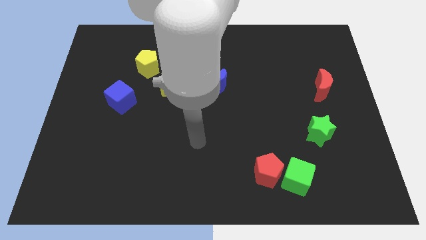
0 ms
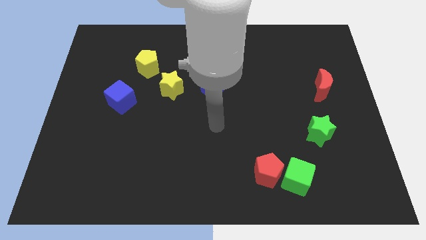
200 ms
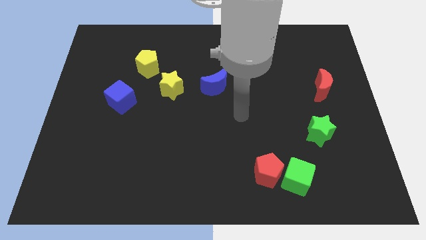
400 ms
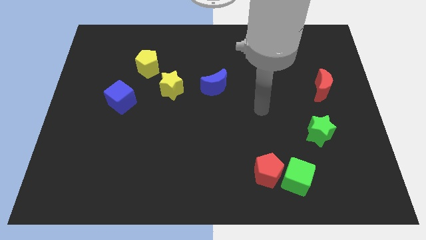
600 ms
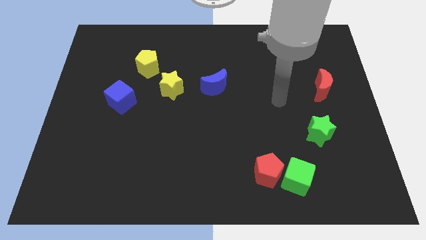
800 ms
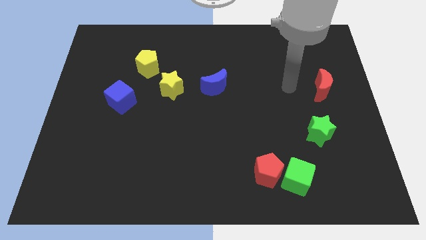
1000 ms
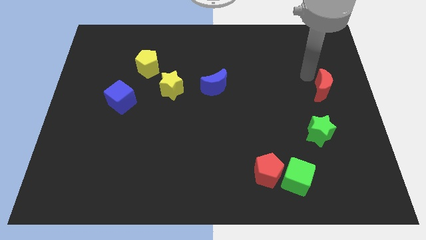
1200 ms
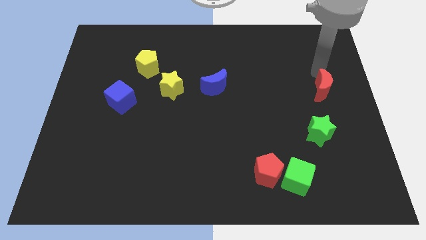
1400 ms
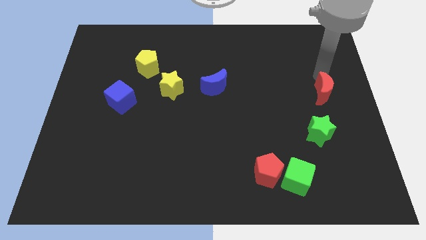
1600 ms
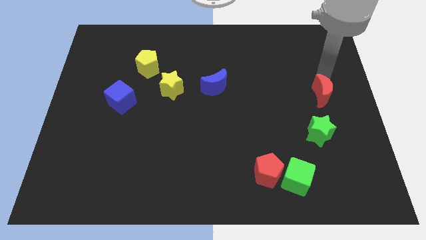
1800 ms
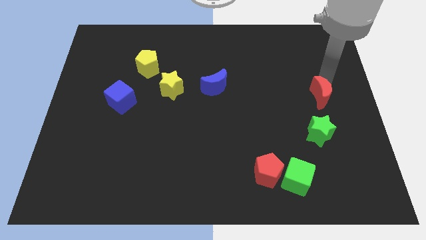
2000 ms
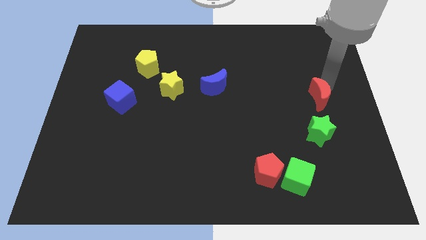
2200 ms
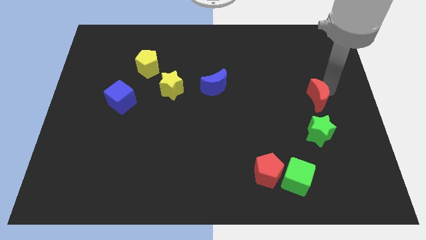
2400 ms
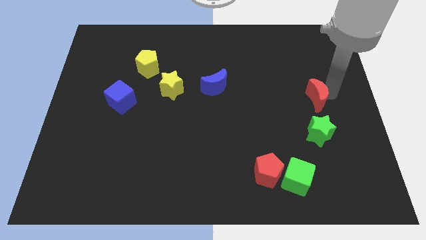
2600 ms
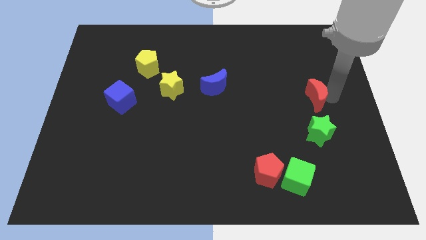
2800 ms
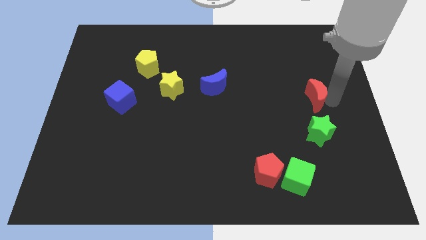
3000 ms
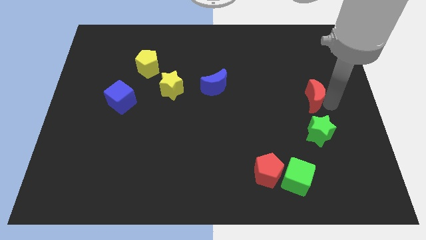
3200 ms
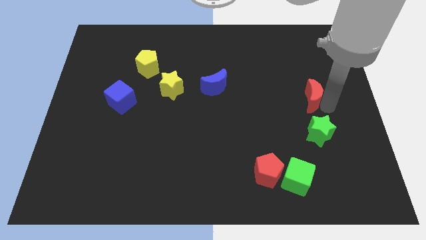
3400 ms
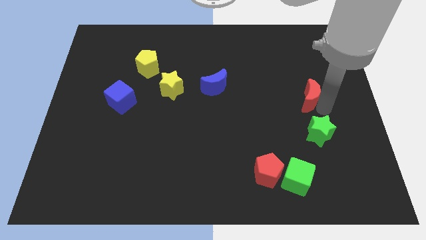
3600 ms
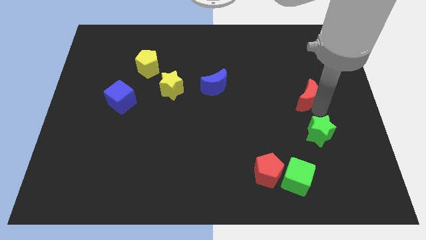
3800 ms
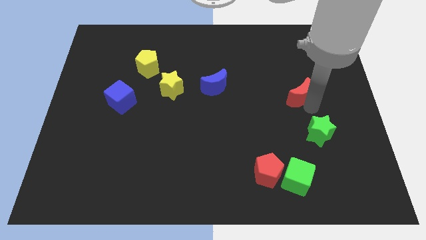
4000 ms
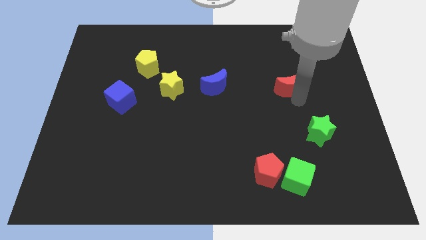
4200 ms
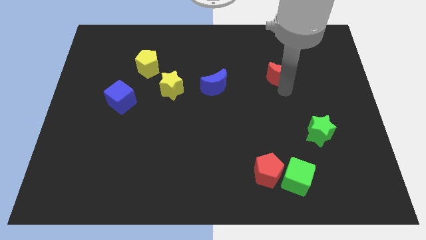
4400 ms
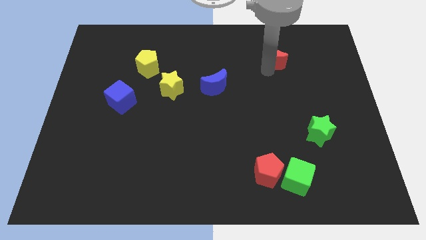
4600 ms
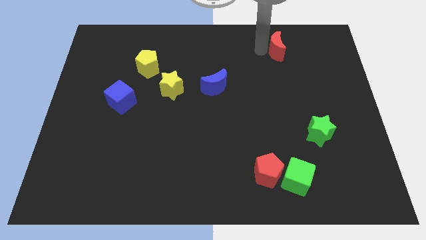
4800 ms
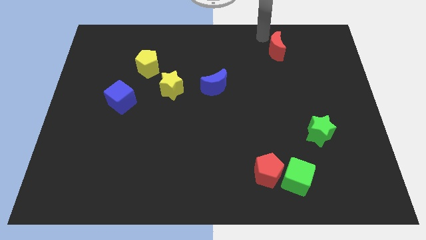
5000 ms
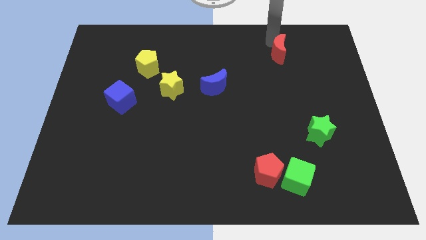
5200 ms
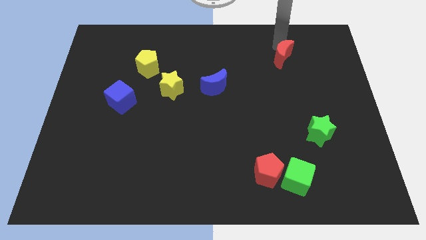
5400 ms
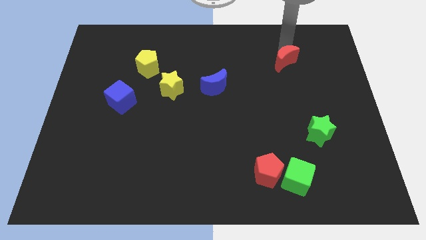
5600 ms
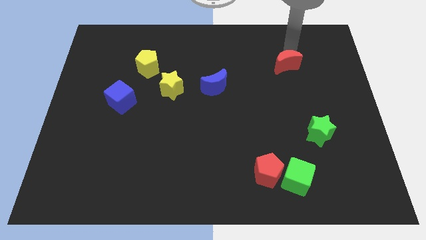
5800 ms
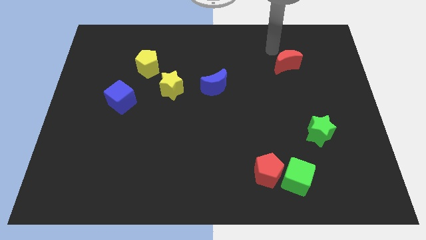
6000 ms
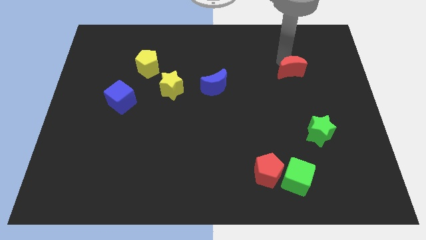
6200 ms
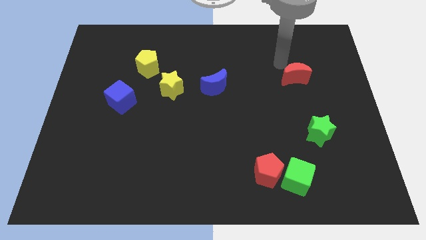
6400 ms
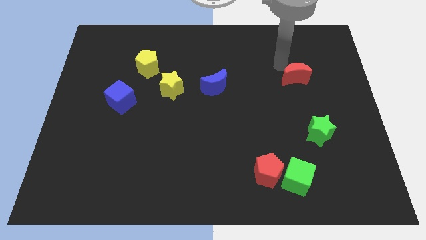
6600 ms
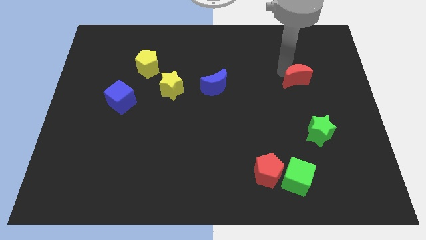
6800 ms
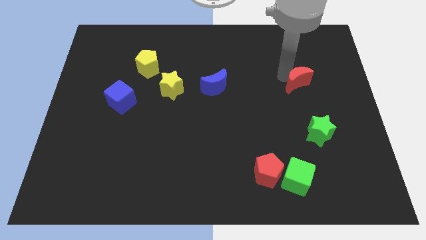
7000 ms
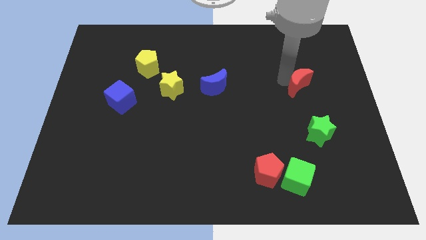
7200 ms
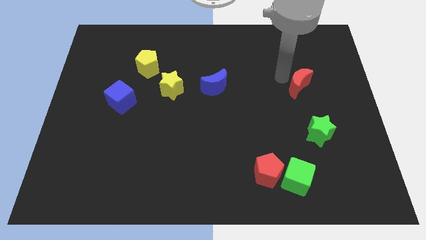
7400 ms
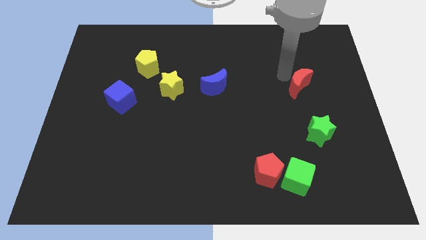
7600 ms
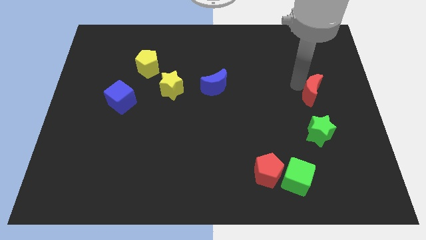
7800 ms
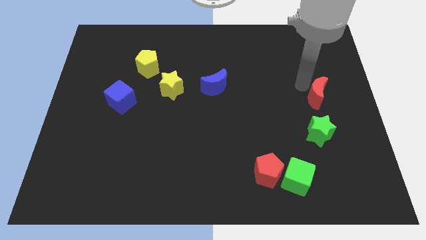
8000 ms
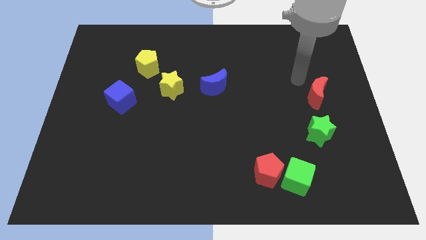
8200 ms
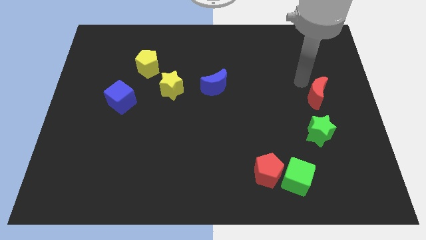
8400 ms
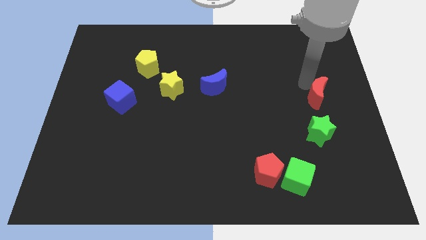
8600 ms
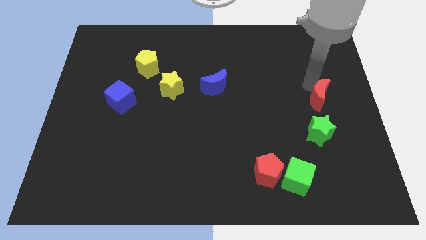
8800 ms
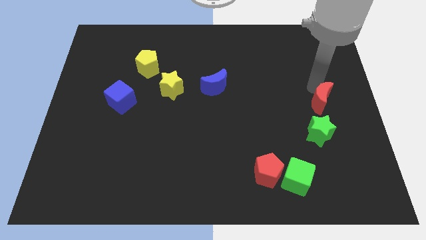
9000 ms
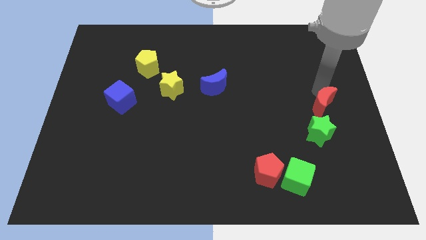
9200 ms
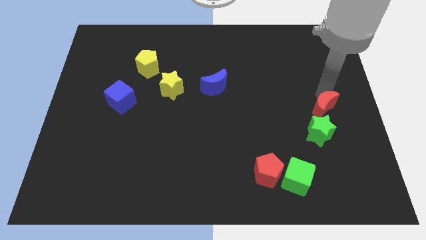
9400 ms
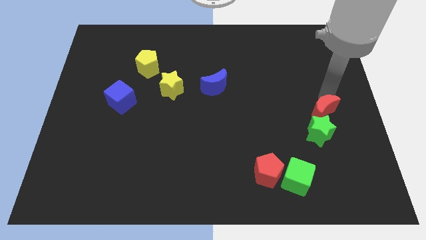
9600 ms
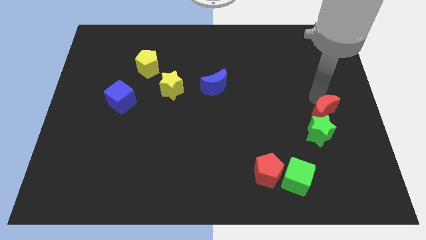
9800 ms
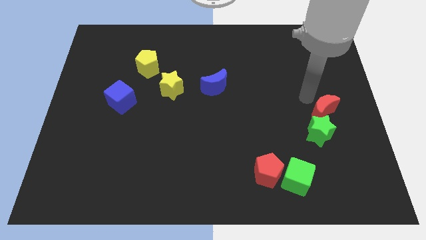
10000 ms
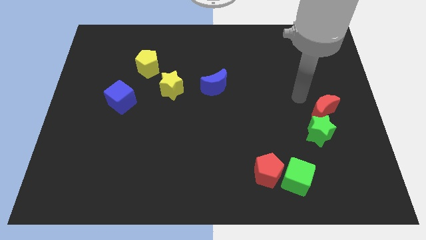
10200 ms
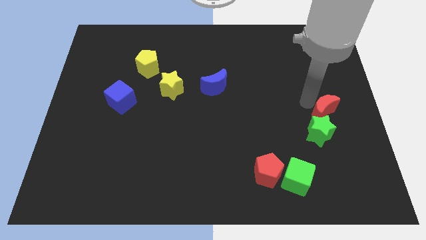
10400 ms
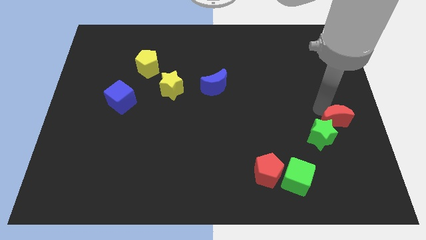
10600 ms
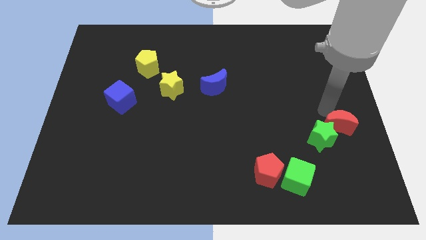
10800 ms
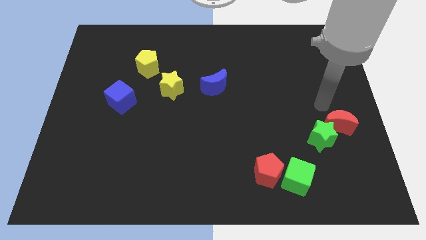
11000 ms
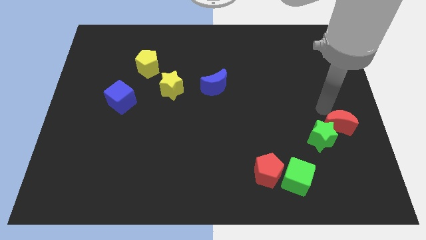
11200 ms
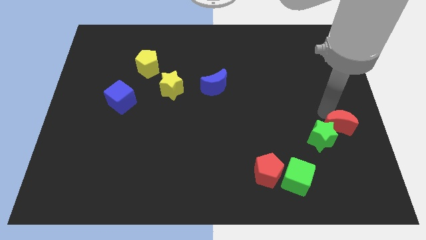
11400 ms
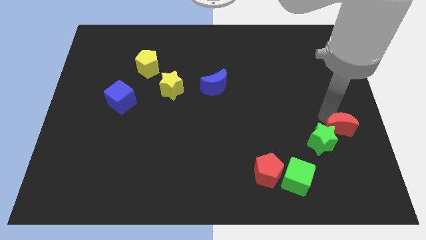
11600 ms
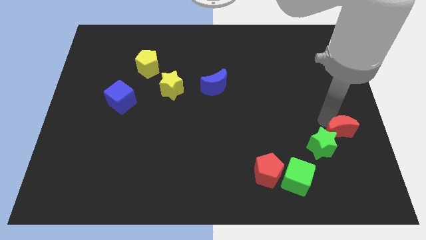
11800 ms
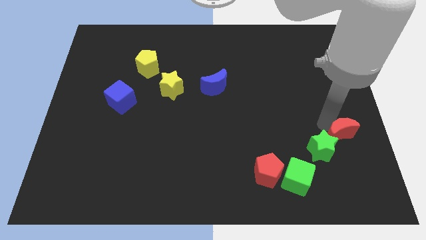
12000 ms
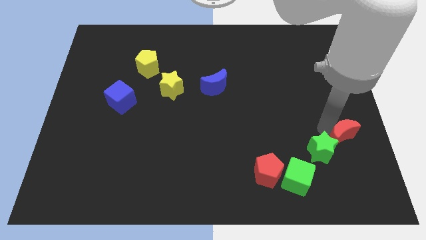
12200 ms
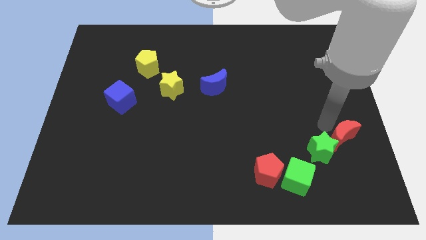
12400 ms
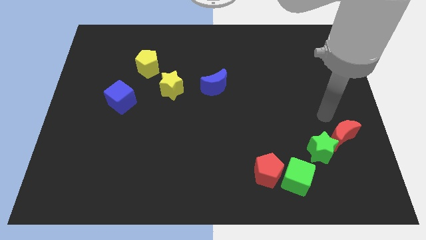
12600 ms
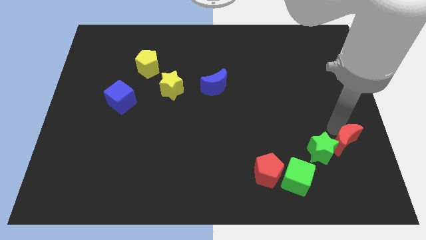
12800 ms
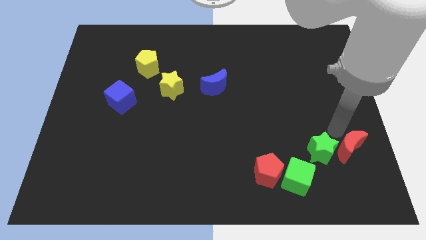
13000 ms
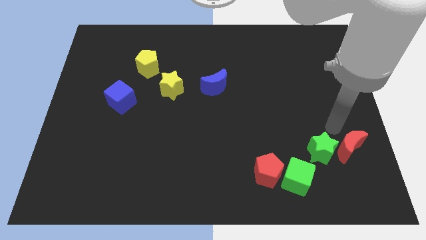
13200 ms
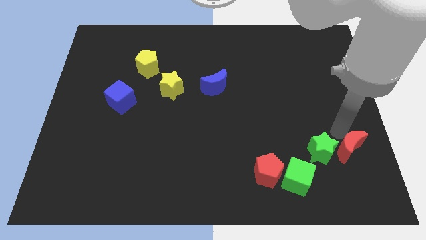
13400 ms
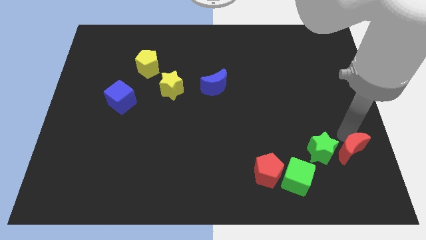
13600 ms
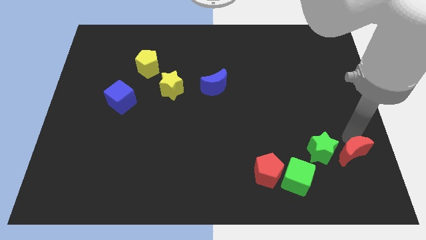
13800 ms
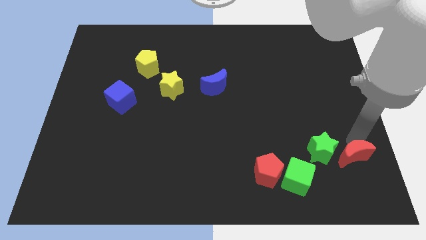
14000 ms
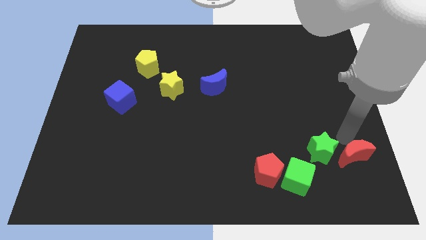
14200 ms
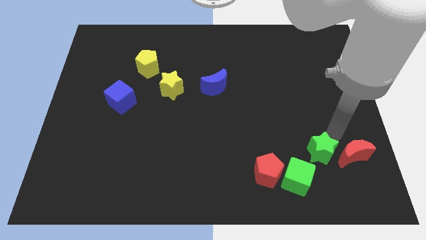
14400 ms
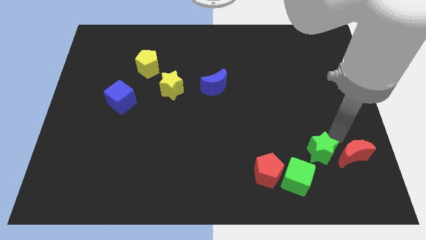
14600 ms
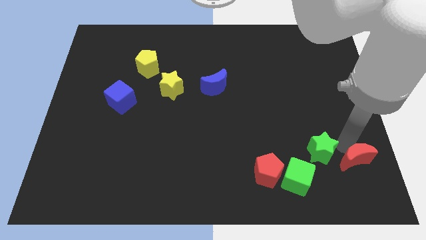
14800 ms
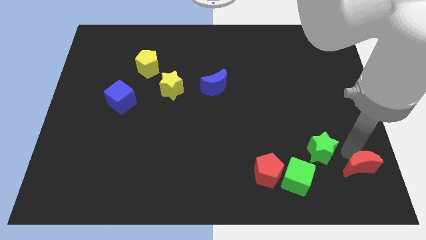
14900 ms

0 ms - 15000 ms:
push the red moon to the bottom right corner
